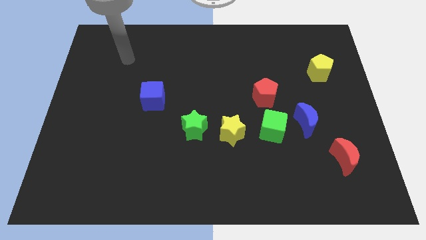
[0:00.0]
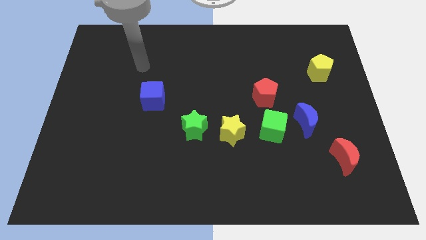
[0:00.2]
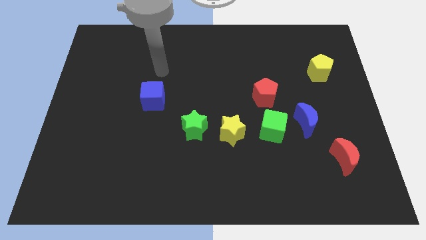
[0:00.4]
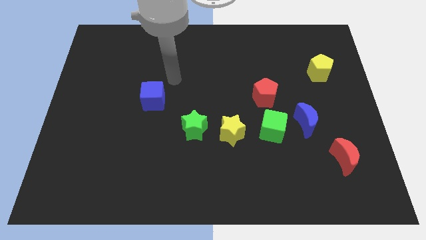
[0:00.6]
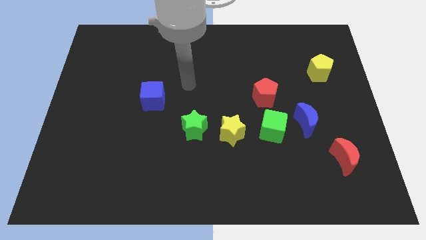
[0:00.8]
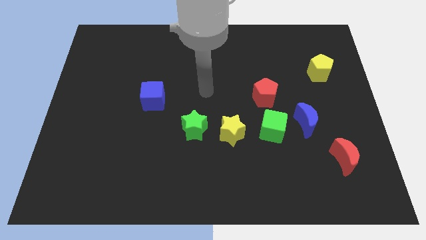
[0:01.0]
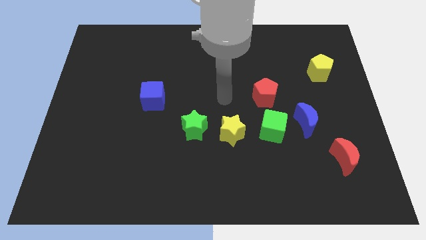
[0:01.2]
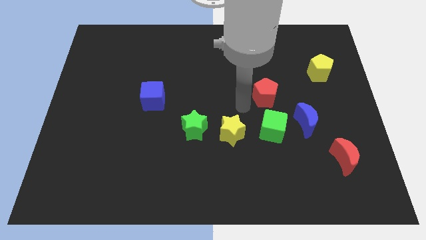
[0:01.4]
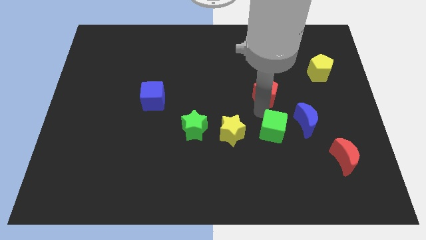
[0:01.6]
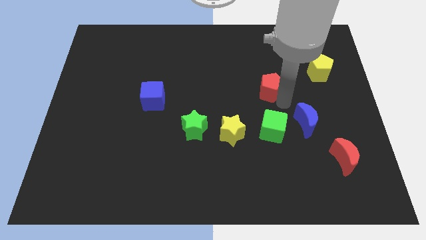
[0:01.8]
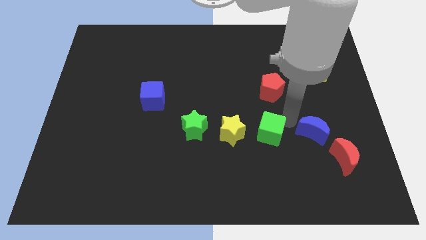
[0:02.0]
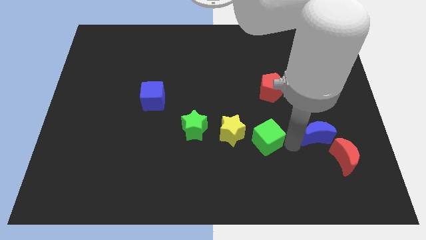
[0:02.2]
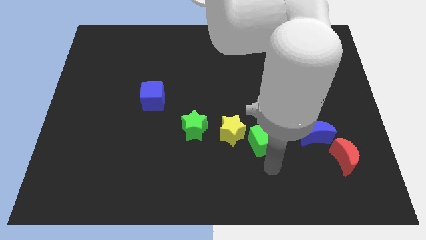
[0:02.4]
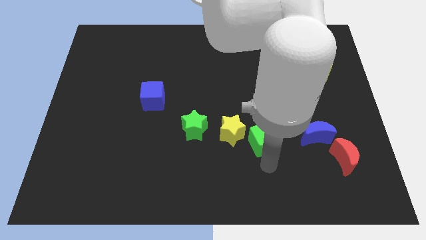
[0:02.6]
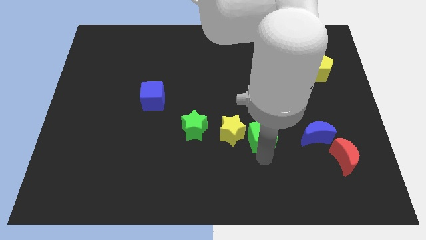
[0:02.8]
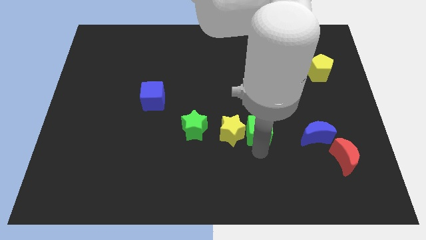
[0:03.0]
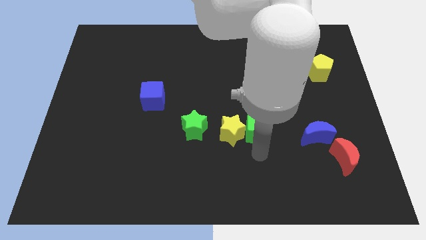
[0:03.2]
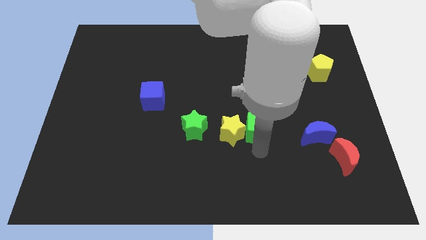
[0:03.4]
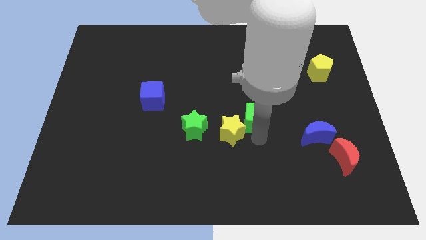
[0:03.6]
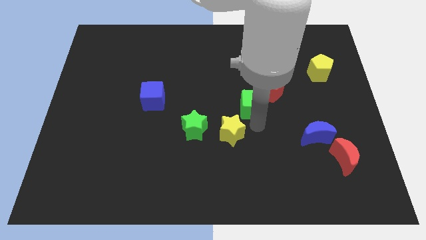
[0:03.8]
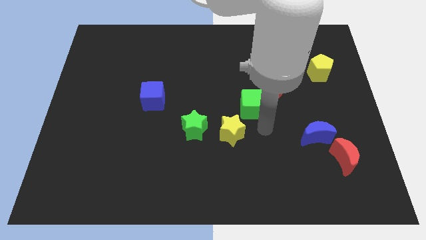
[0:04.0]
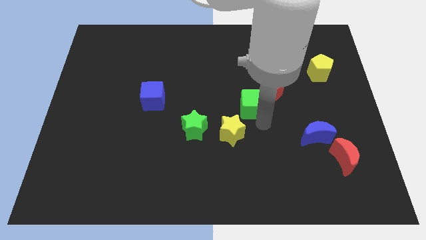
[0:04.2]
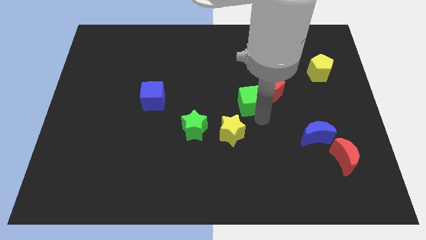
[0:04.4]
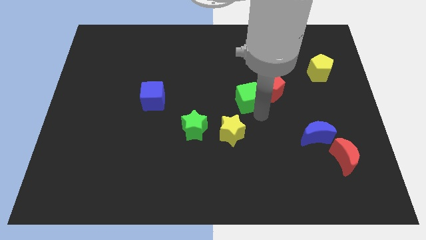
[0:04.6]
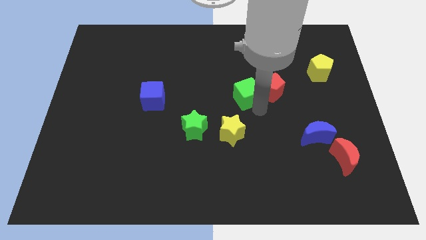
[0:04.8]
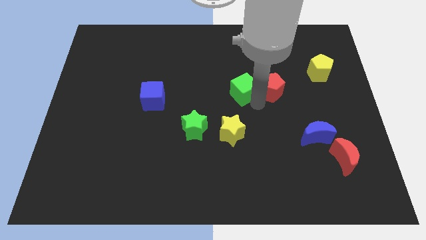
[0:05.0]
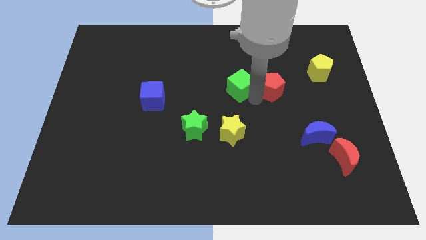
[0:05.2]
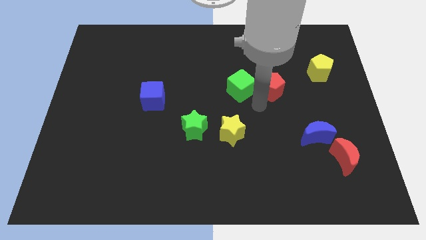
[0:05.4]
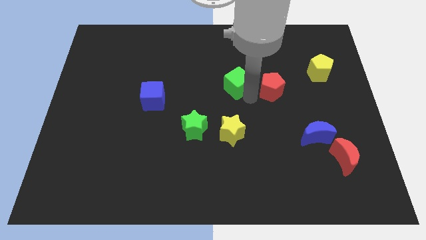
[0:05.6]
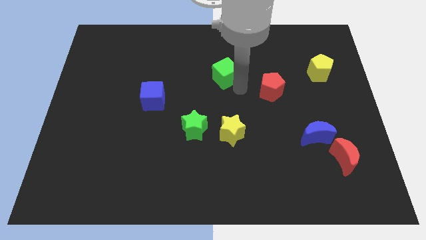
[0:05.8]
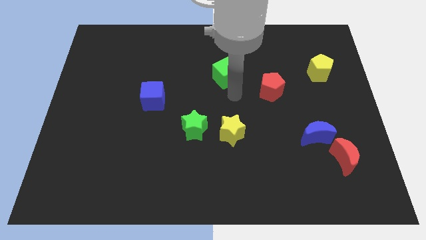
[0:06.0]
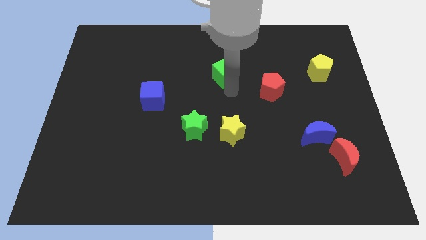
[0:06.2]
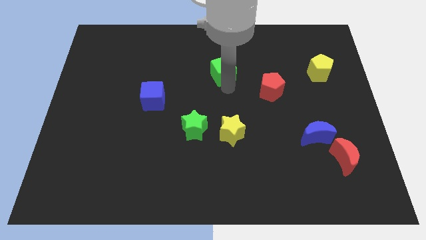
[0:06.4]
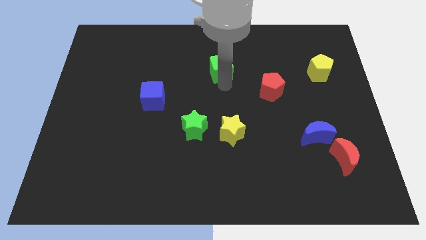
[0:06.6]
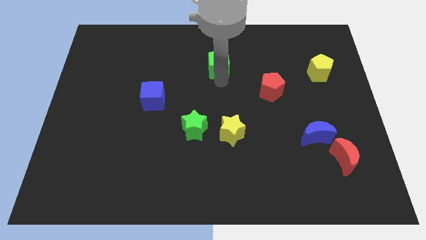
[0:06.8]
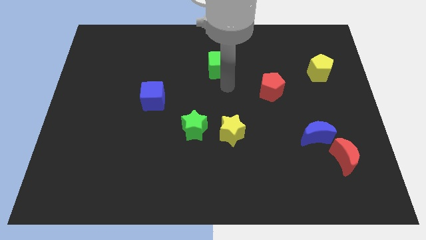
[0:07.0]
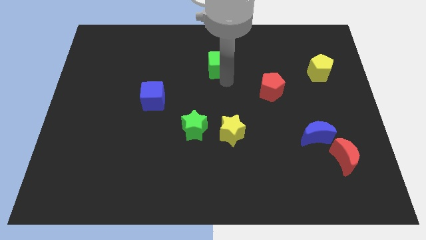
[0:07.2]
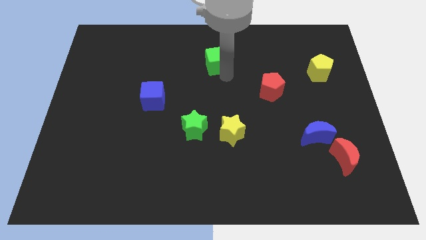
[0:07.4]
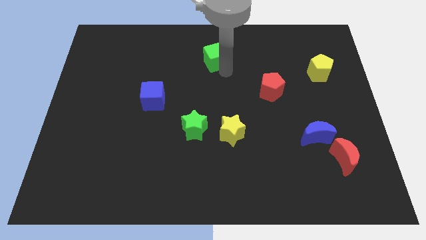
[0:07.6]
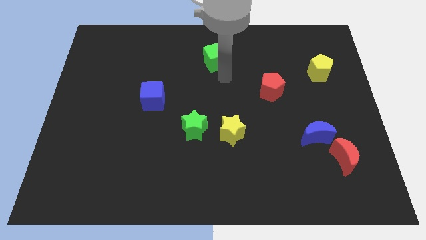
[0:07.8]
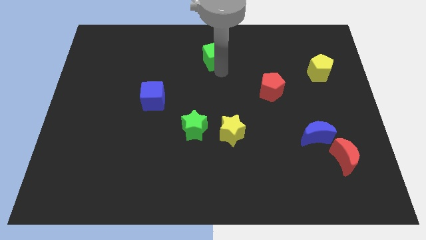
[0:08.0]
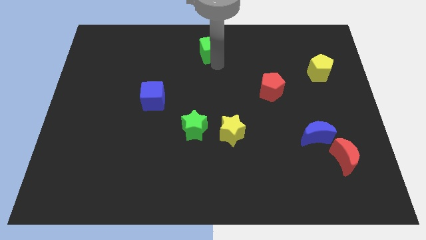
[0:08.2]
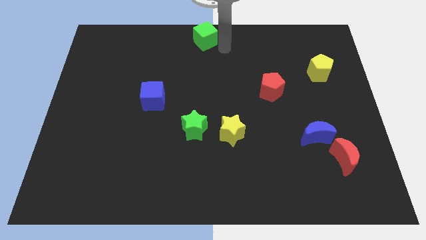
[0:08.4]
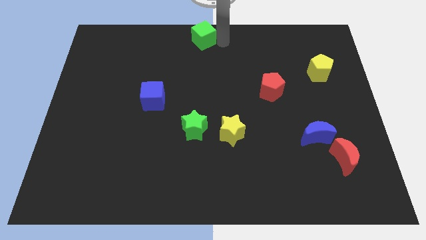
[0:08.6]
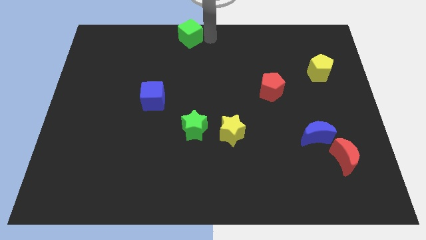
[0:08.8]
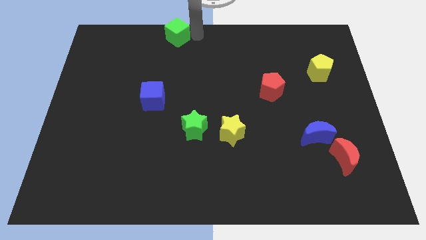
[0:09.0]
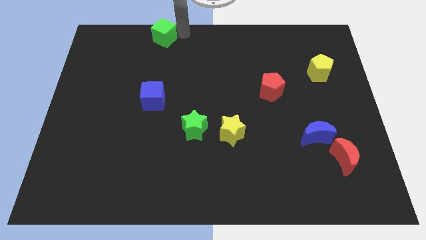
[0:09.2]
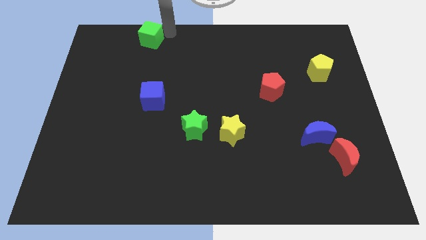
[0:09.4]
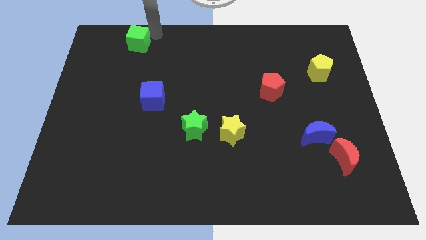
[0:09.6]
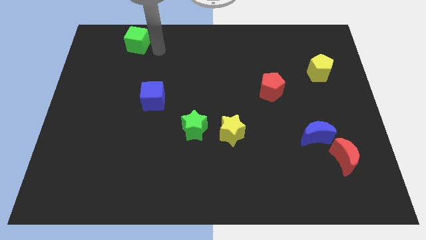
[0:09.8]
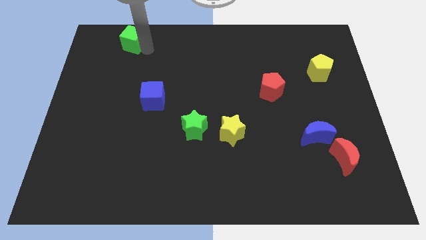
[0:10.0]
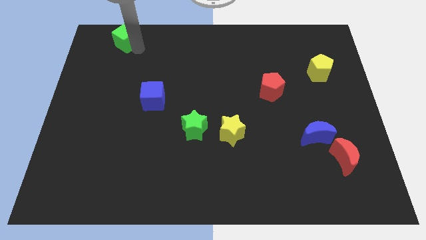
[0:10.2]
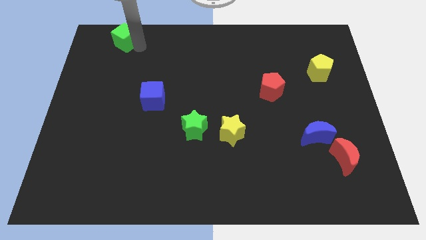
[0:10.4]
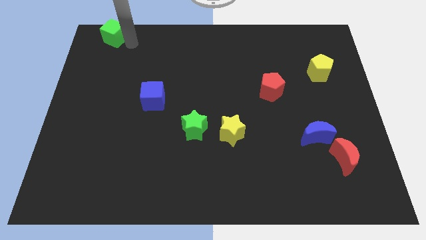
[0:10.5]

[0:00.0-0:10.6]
move the green cube to the top left corner

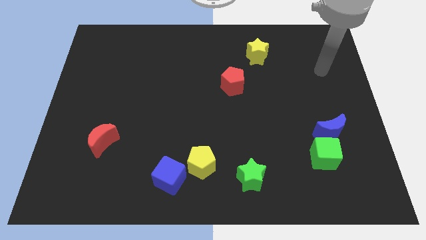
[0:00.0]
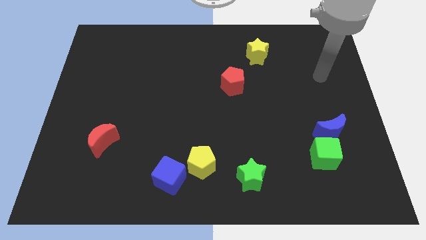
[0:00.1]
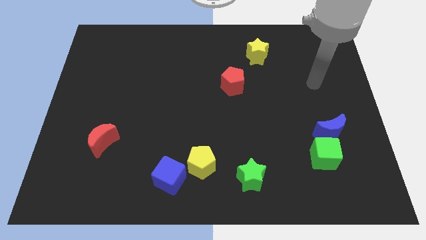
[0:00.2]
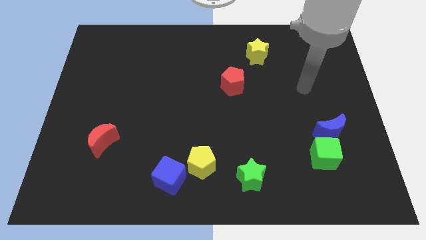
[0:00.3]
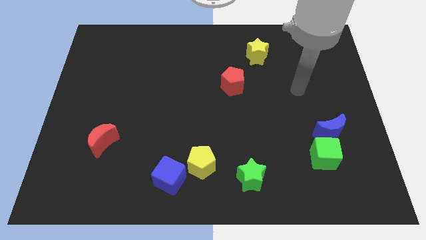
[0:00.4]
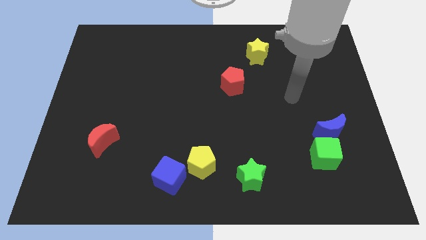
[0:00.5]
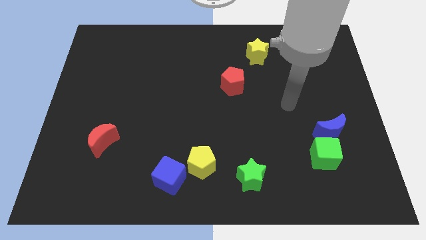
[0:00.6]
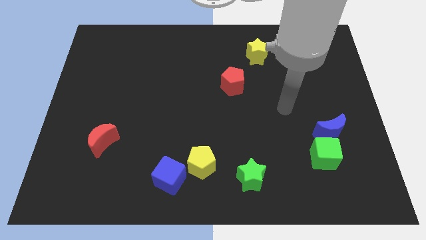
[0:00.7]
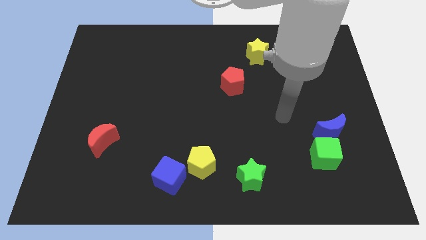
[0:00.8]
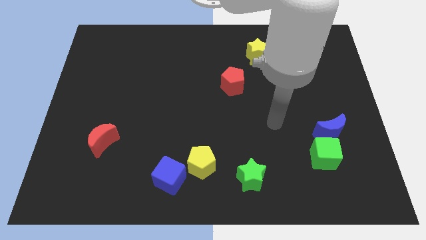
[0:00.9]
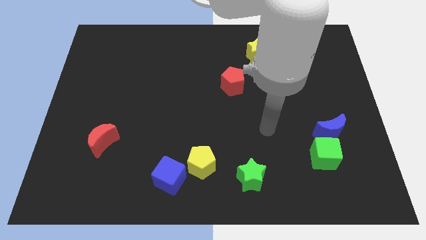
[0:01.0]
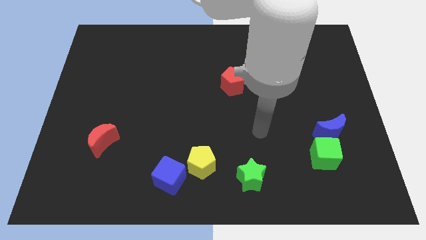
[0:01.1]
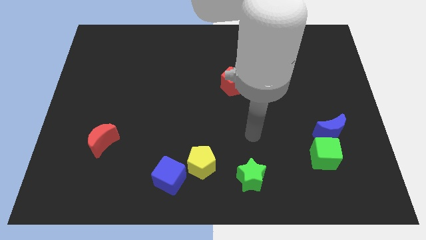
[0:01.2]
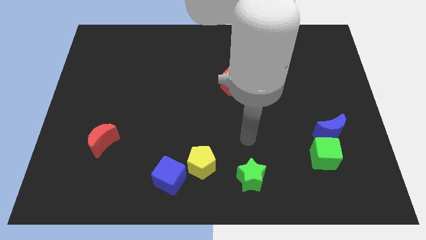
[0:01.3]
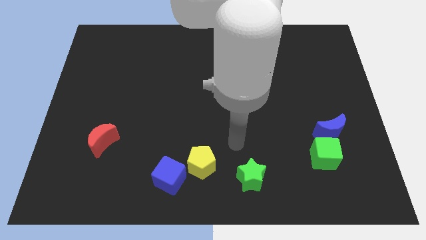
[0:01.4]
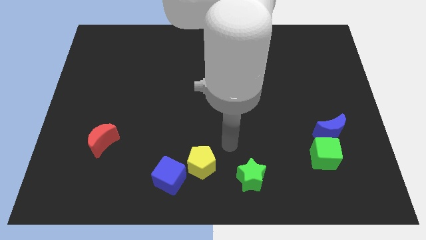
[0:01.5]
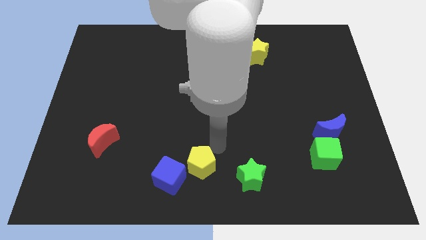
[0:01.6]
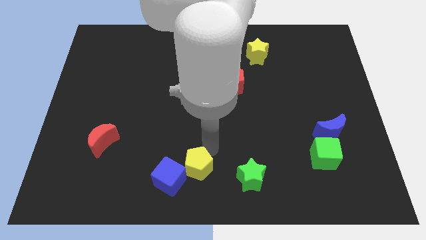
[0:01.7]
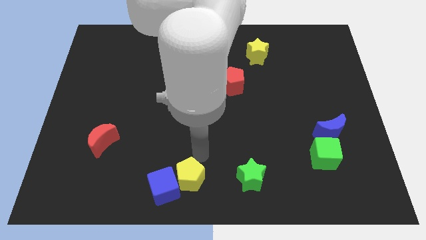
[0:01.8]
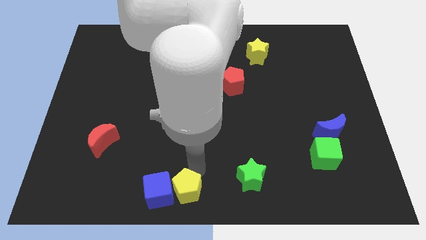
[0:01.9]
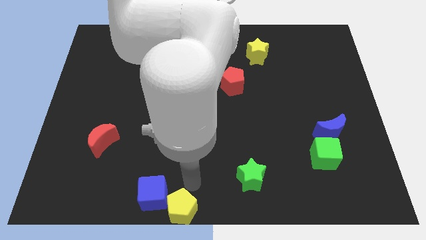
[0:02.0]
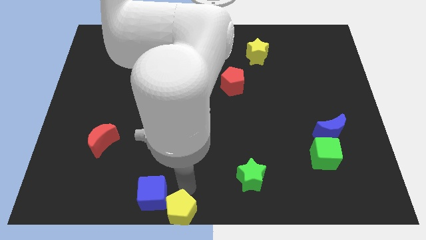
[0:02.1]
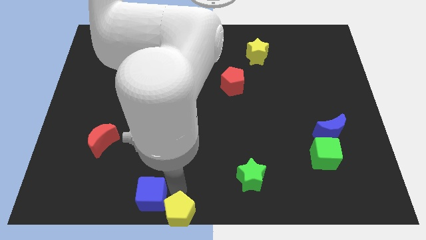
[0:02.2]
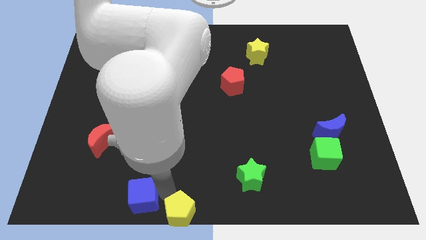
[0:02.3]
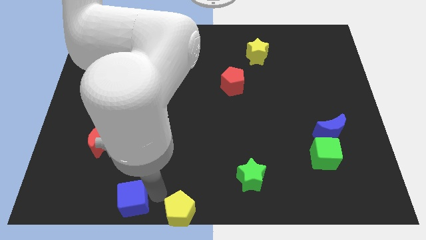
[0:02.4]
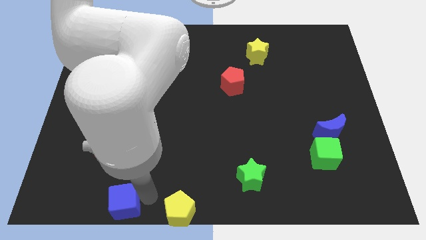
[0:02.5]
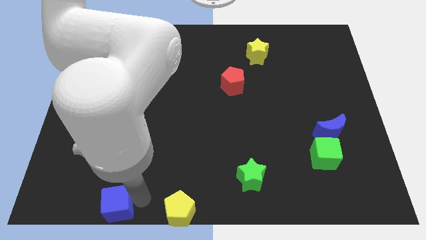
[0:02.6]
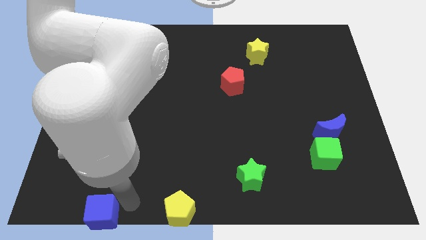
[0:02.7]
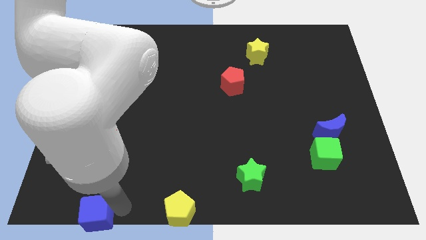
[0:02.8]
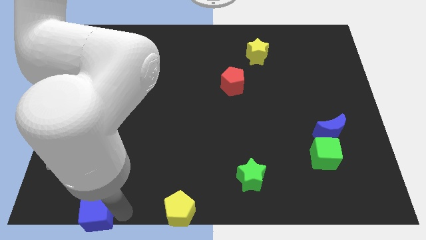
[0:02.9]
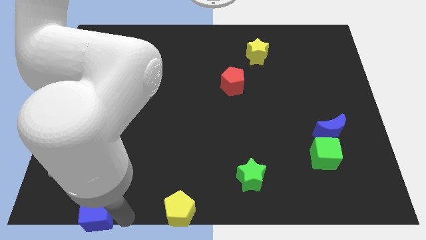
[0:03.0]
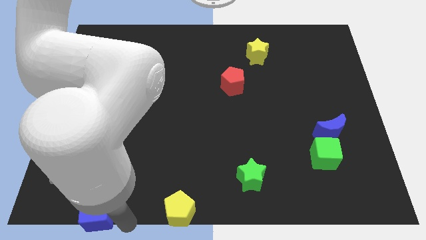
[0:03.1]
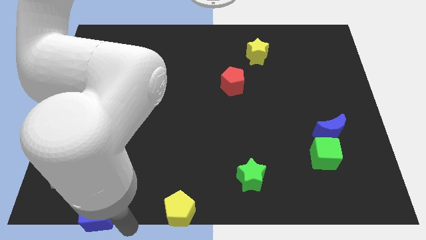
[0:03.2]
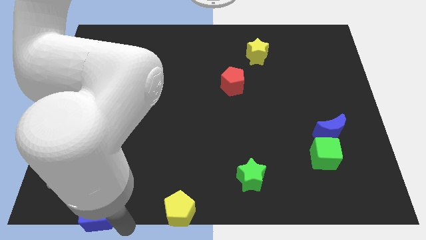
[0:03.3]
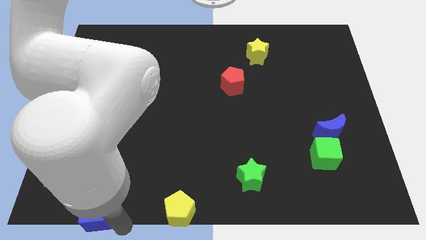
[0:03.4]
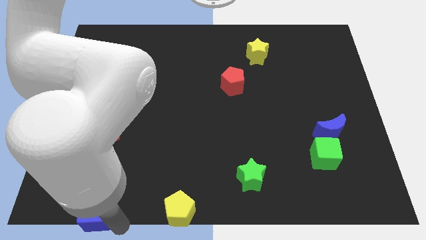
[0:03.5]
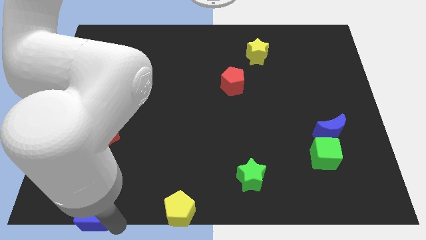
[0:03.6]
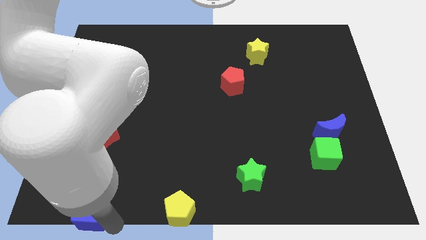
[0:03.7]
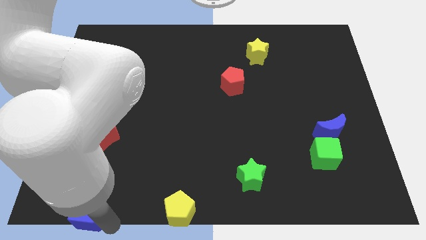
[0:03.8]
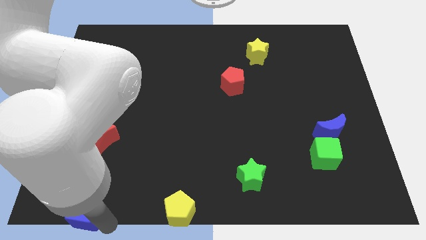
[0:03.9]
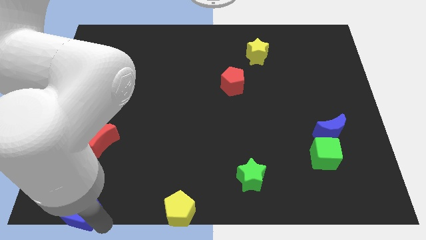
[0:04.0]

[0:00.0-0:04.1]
move the blue cube to the bottom left of the board
